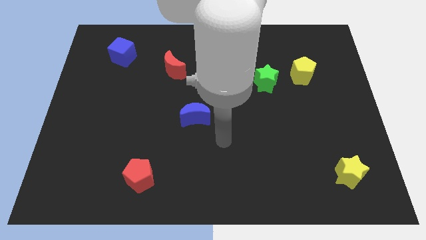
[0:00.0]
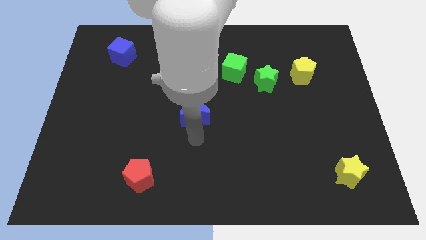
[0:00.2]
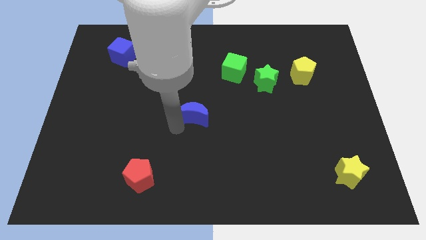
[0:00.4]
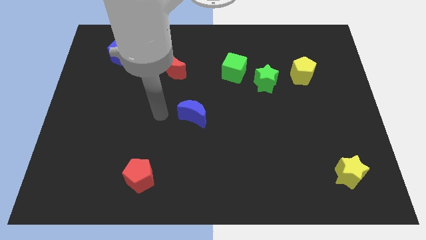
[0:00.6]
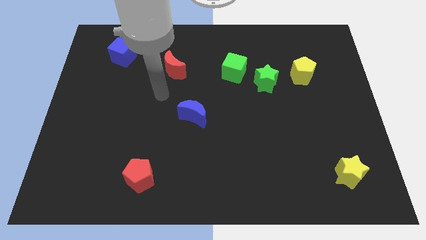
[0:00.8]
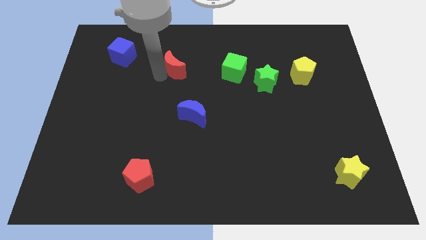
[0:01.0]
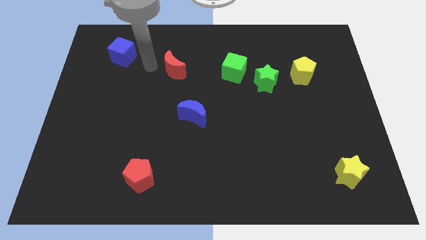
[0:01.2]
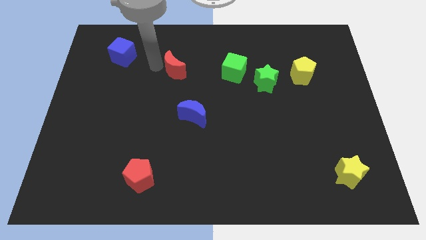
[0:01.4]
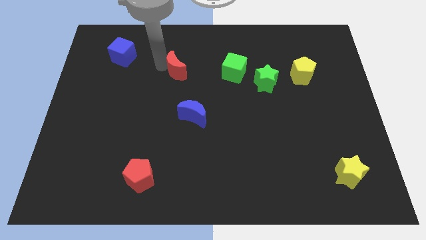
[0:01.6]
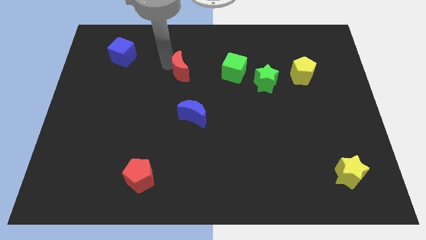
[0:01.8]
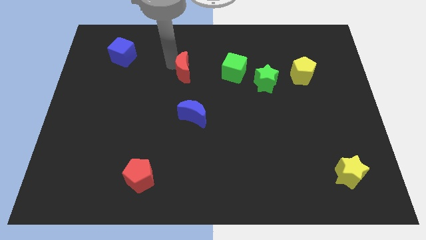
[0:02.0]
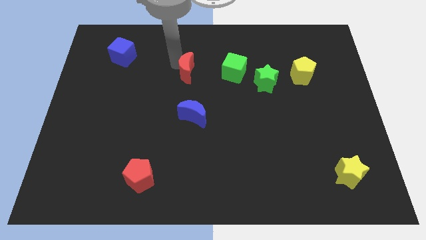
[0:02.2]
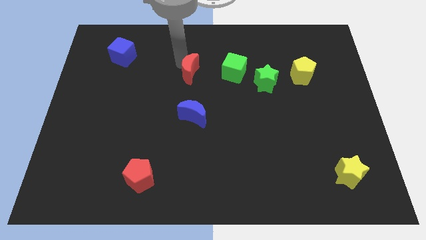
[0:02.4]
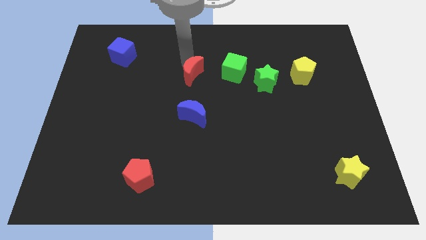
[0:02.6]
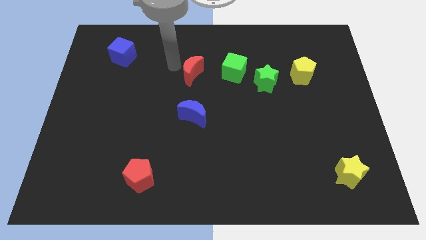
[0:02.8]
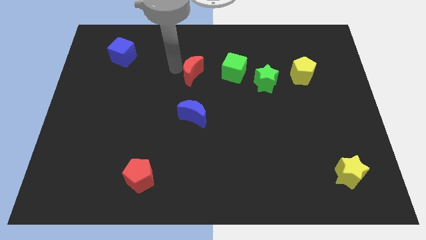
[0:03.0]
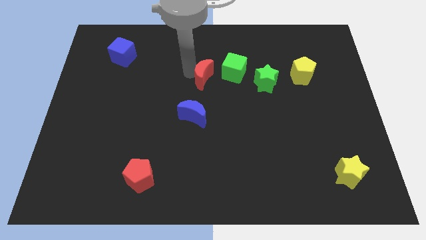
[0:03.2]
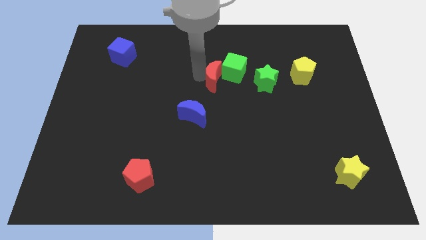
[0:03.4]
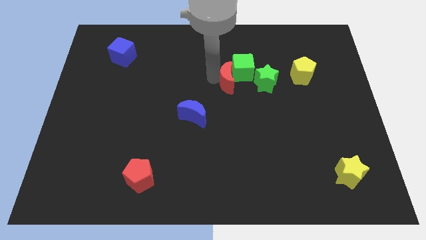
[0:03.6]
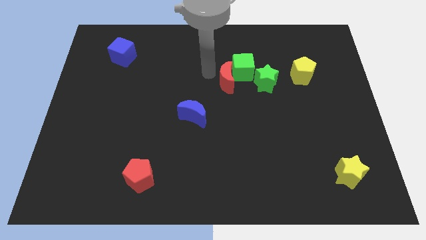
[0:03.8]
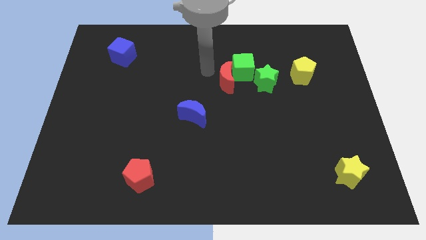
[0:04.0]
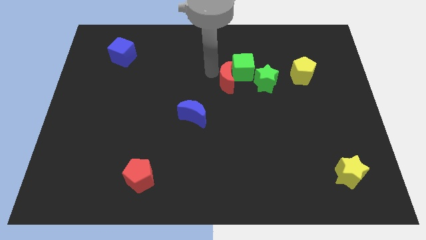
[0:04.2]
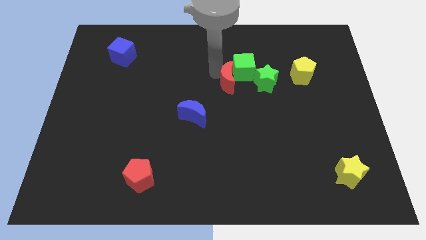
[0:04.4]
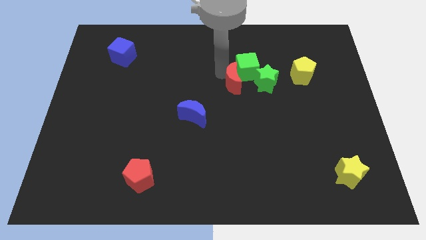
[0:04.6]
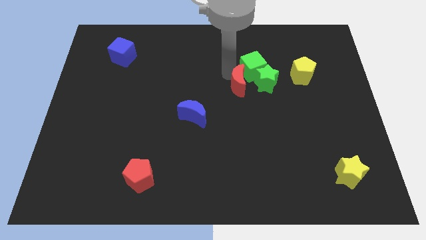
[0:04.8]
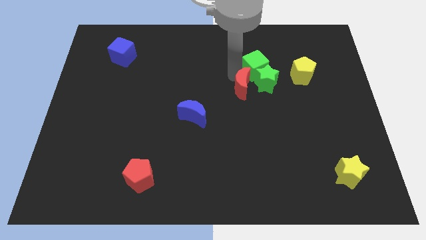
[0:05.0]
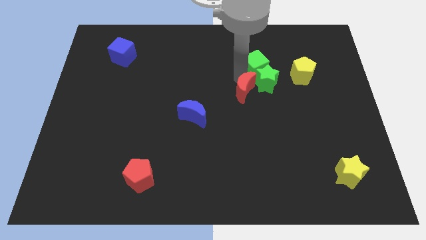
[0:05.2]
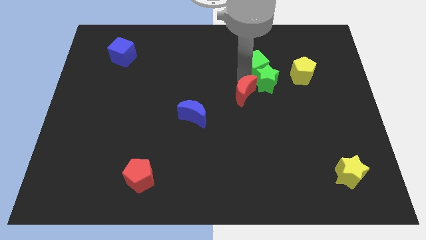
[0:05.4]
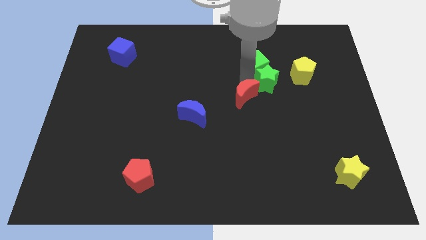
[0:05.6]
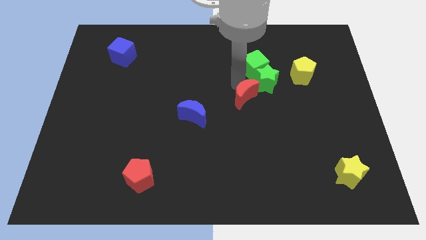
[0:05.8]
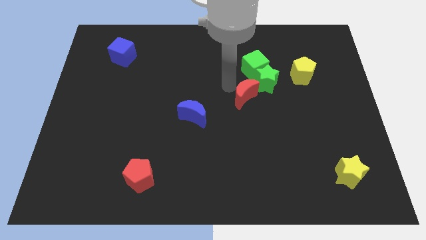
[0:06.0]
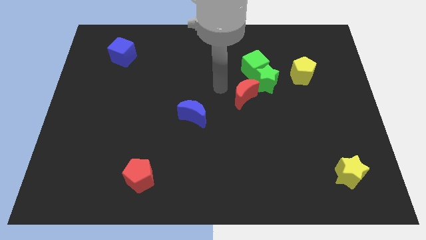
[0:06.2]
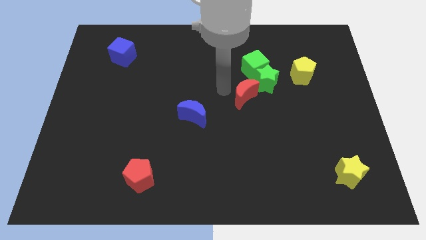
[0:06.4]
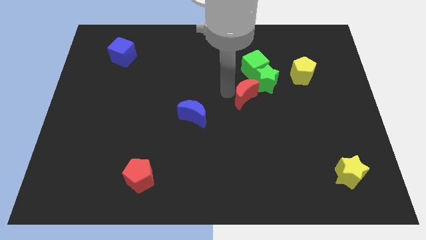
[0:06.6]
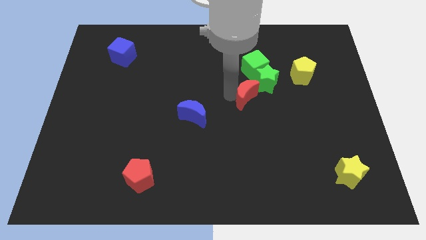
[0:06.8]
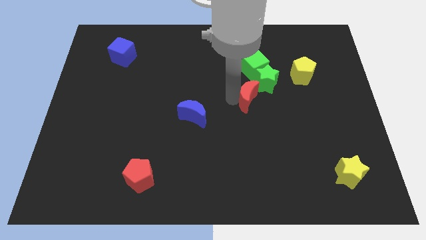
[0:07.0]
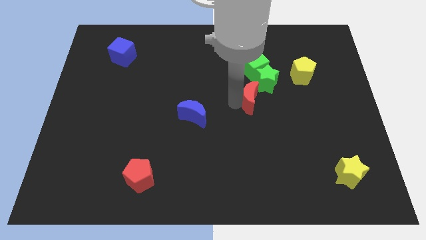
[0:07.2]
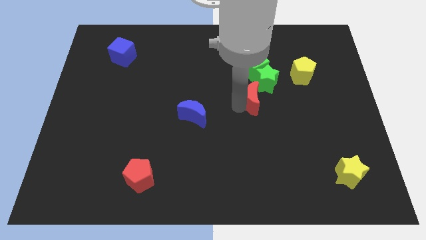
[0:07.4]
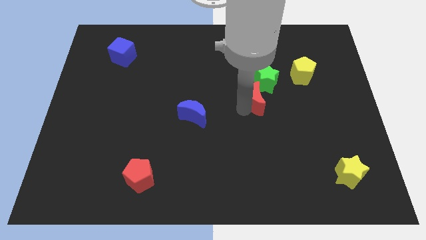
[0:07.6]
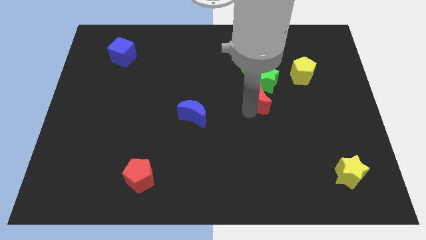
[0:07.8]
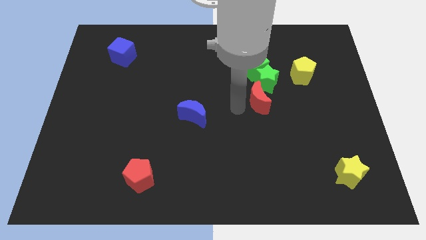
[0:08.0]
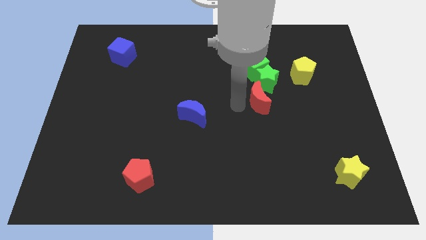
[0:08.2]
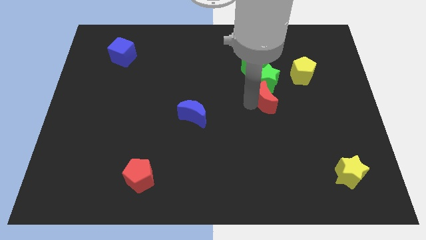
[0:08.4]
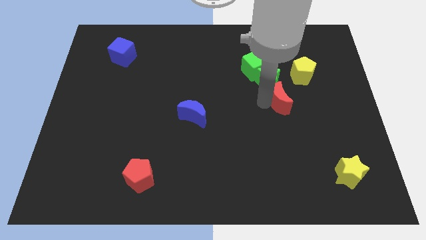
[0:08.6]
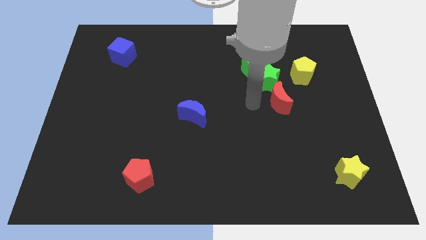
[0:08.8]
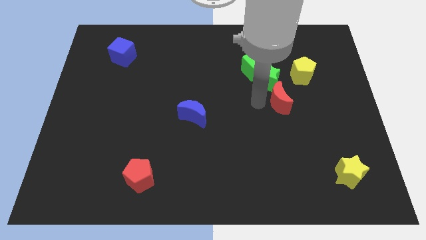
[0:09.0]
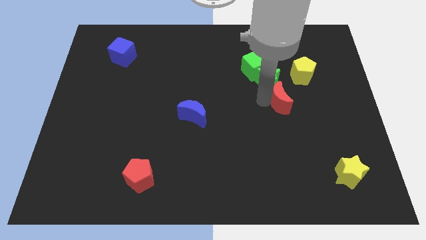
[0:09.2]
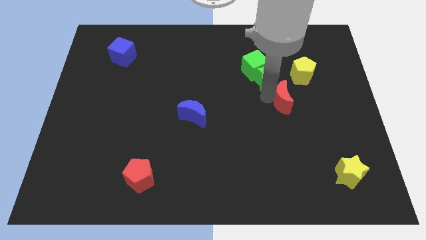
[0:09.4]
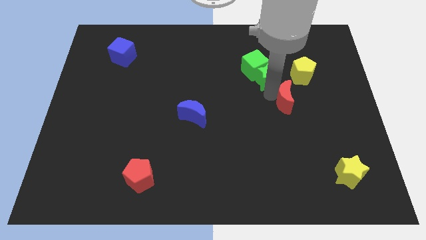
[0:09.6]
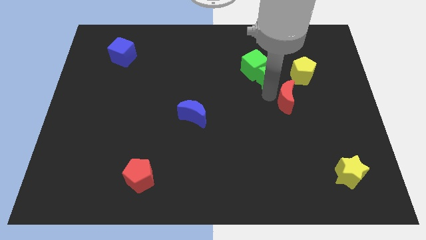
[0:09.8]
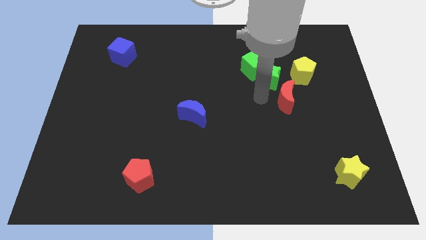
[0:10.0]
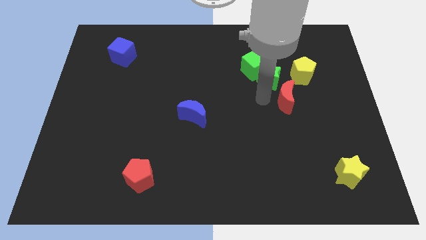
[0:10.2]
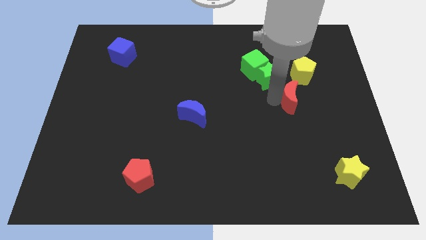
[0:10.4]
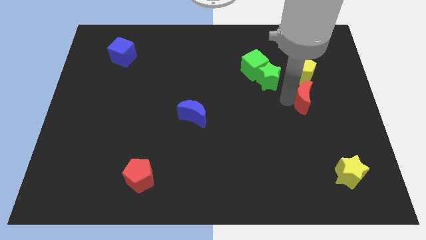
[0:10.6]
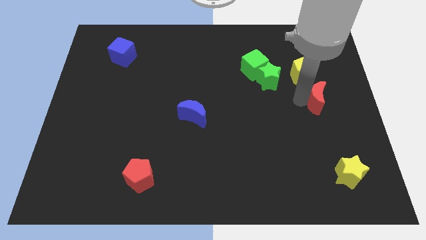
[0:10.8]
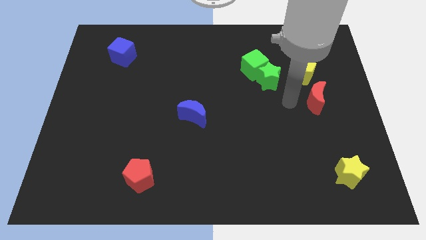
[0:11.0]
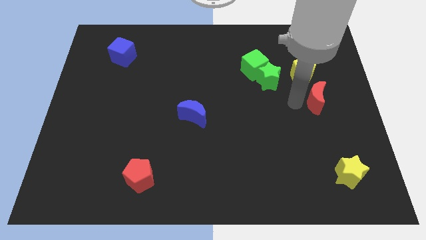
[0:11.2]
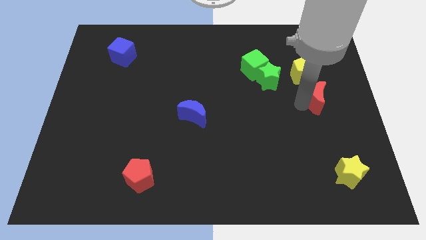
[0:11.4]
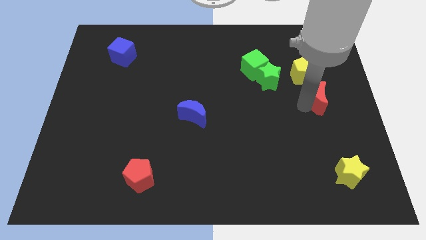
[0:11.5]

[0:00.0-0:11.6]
slide the red moon to the center right

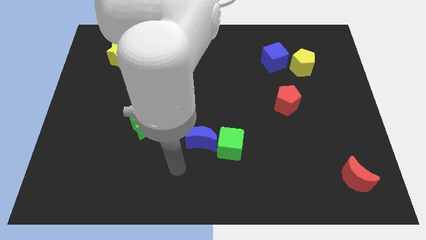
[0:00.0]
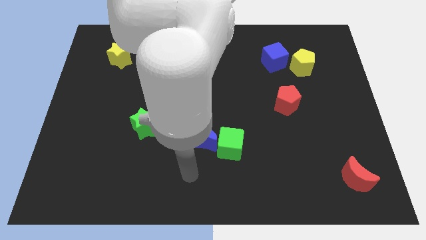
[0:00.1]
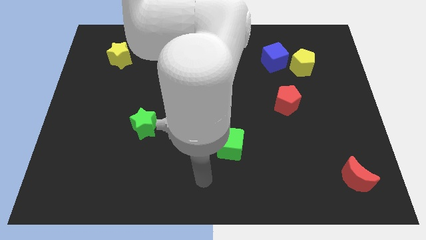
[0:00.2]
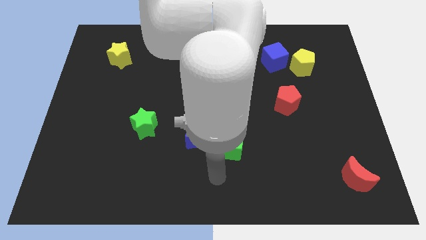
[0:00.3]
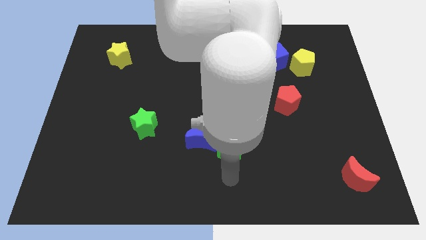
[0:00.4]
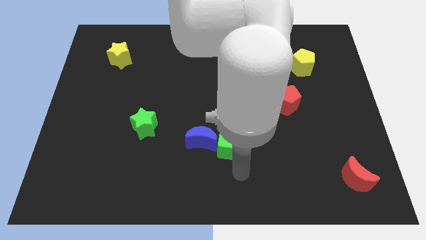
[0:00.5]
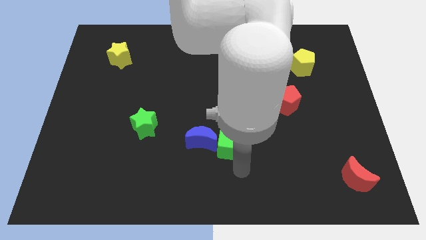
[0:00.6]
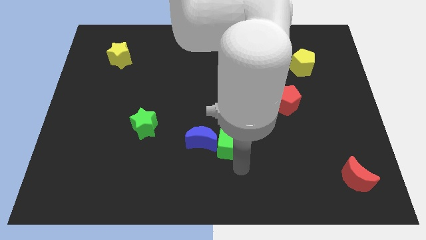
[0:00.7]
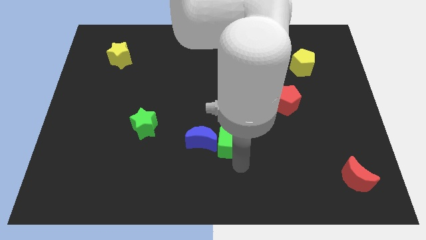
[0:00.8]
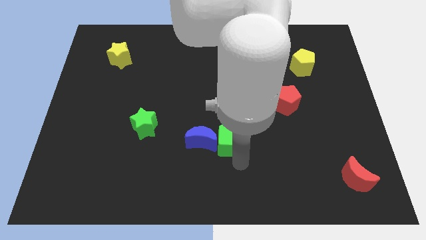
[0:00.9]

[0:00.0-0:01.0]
put the green cube to the middle
